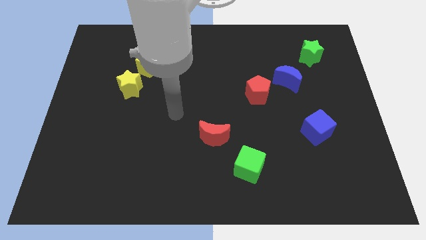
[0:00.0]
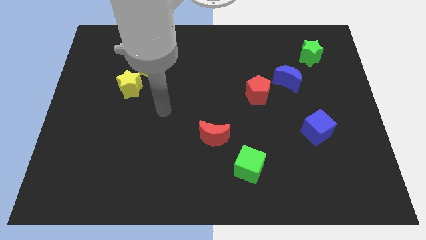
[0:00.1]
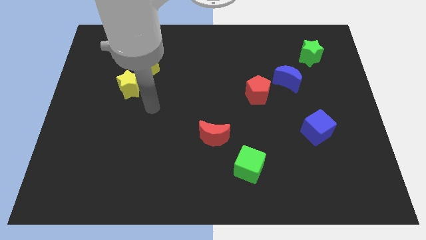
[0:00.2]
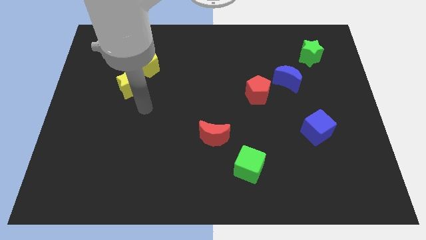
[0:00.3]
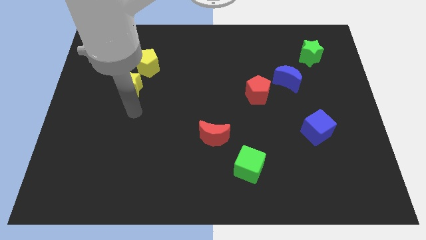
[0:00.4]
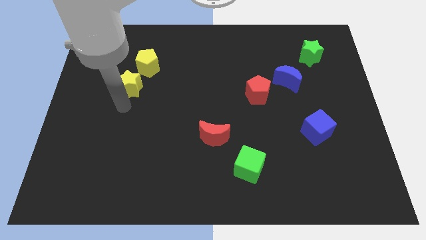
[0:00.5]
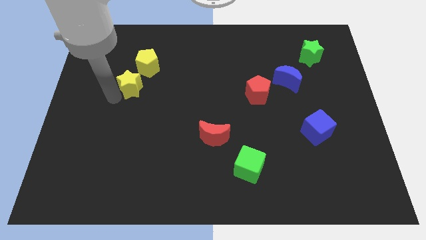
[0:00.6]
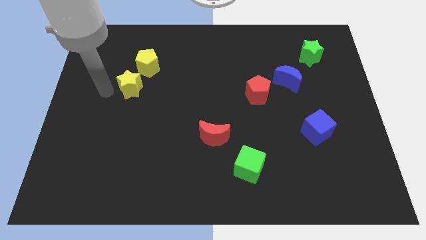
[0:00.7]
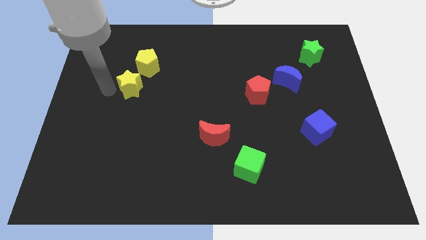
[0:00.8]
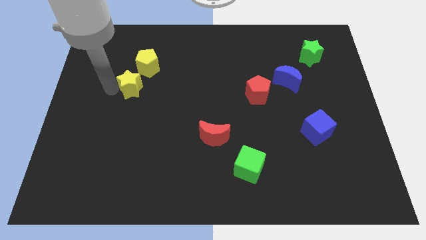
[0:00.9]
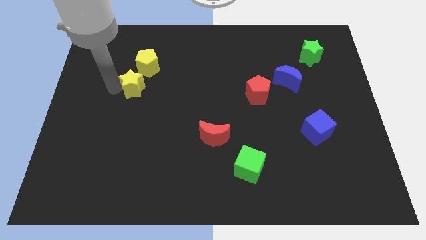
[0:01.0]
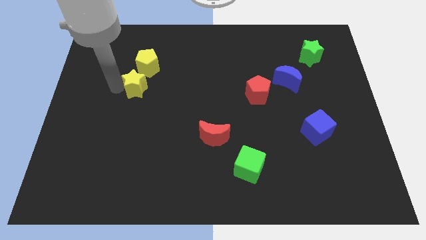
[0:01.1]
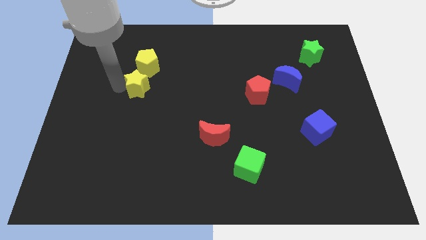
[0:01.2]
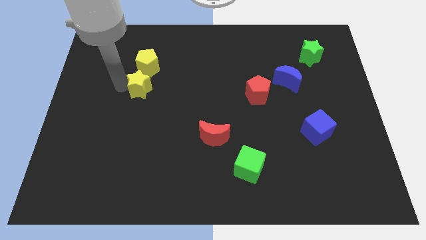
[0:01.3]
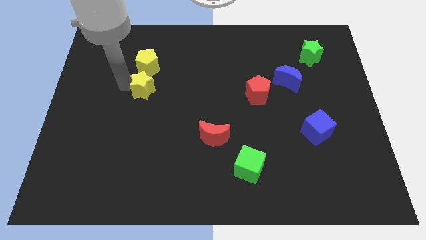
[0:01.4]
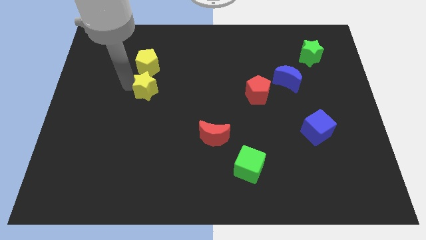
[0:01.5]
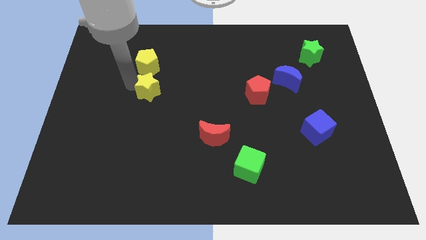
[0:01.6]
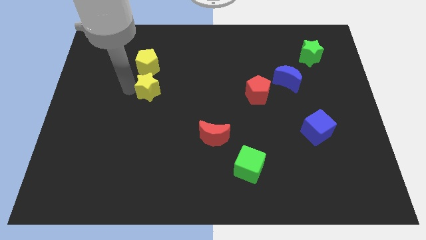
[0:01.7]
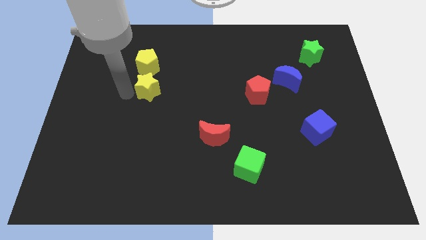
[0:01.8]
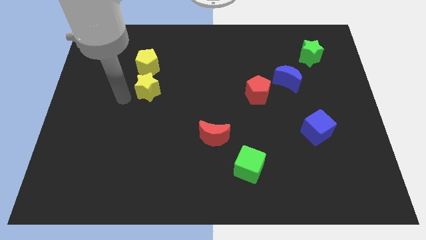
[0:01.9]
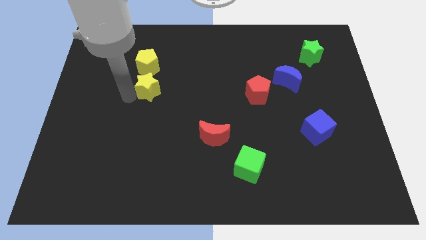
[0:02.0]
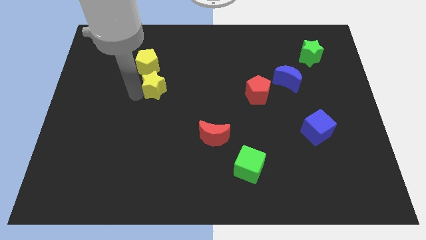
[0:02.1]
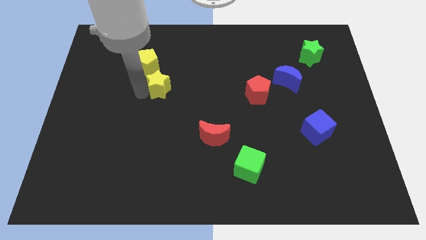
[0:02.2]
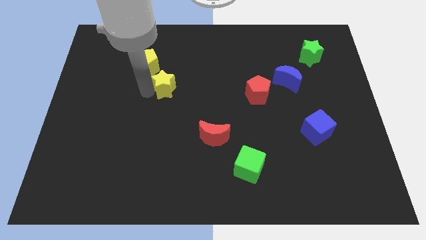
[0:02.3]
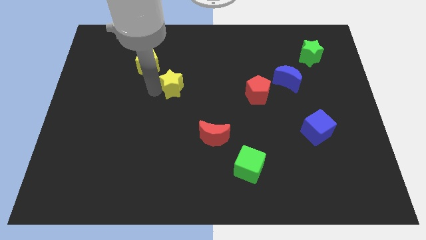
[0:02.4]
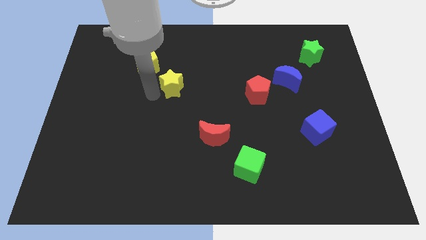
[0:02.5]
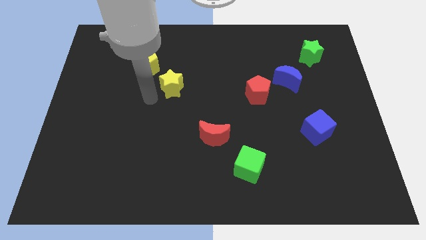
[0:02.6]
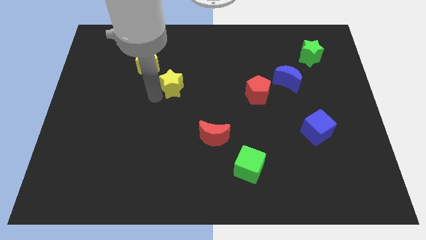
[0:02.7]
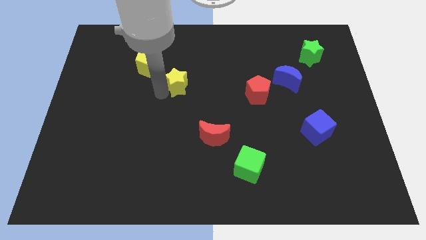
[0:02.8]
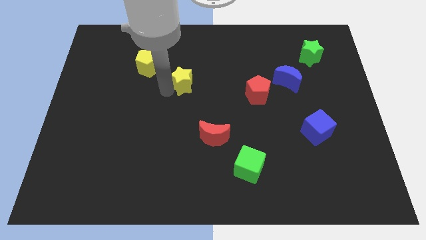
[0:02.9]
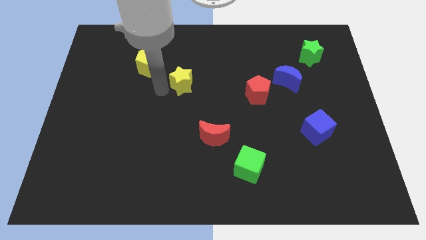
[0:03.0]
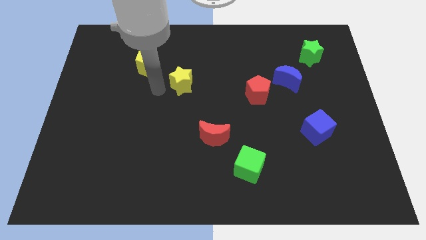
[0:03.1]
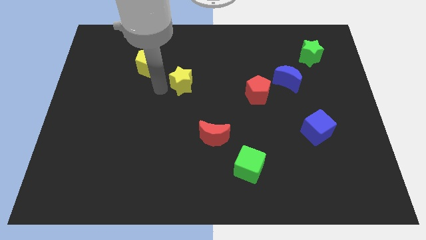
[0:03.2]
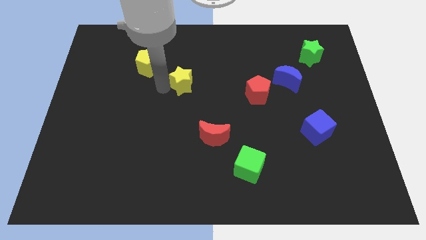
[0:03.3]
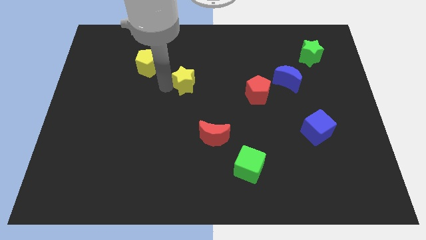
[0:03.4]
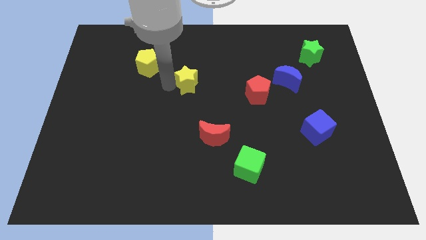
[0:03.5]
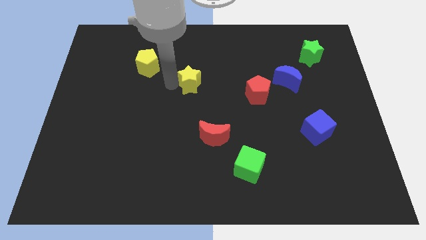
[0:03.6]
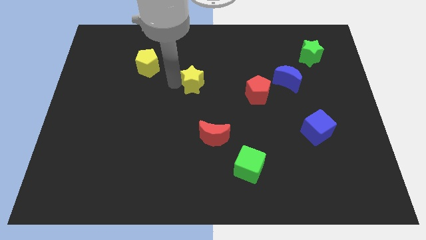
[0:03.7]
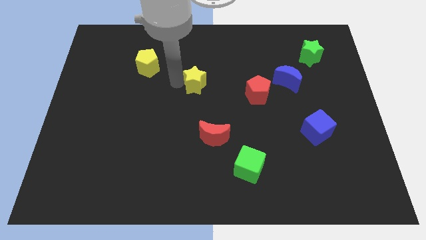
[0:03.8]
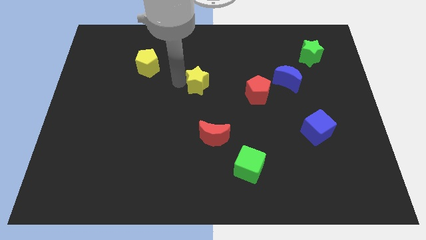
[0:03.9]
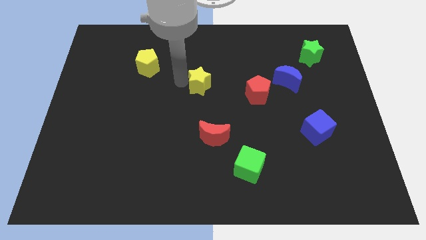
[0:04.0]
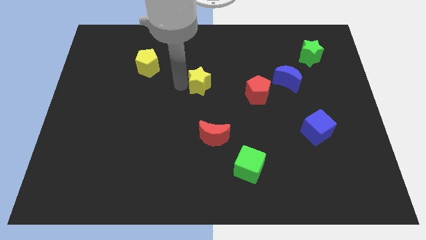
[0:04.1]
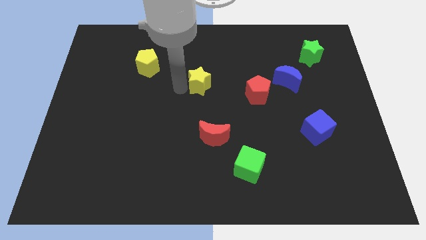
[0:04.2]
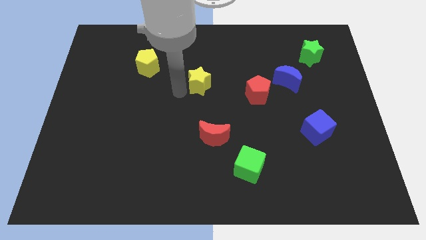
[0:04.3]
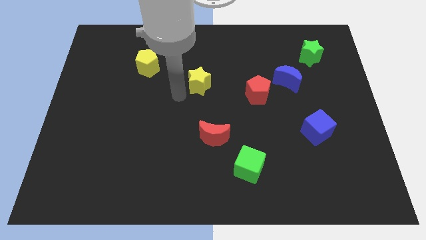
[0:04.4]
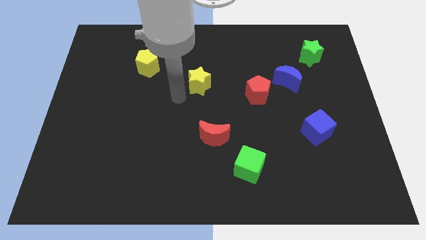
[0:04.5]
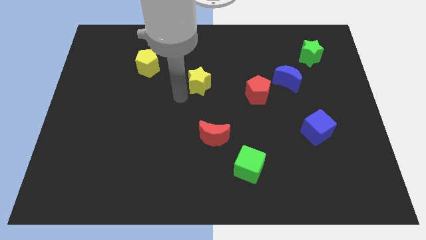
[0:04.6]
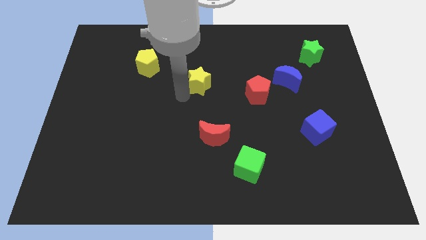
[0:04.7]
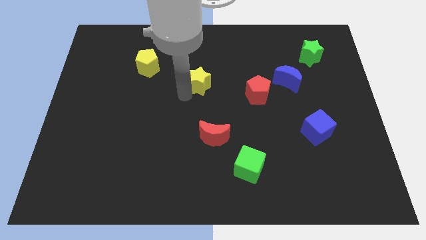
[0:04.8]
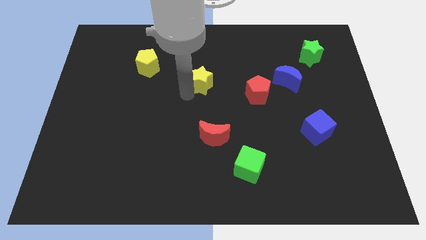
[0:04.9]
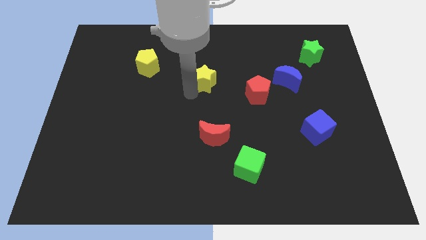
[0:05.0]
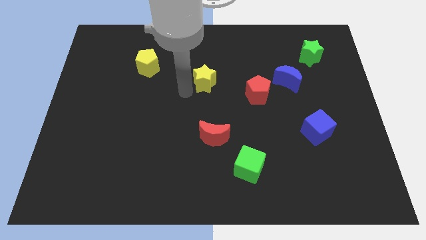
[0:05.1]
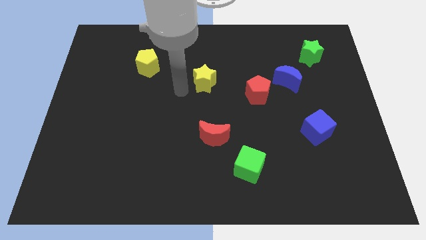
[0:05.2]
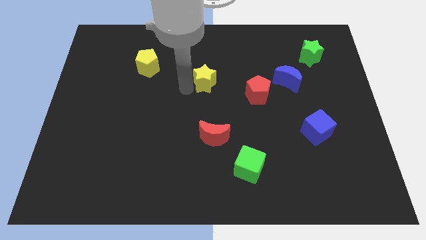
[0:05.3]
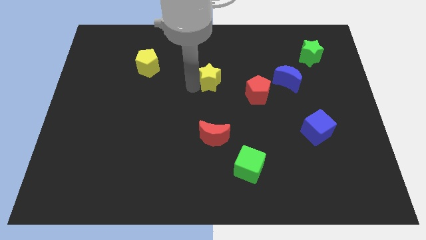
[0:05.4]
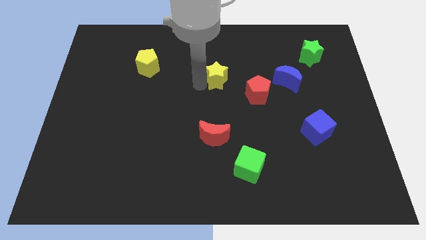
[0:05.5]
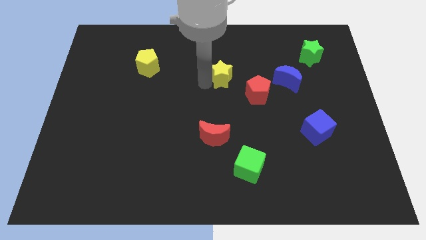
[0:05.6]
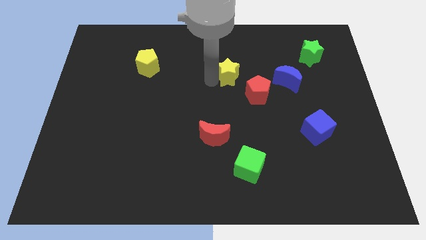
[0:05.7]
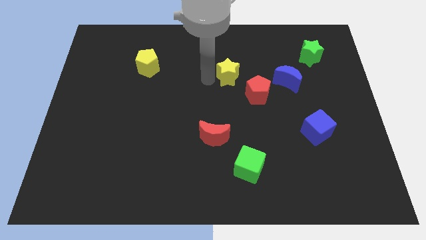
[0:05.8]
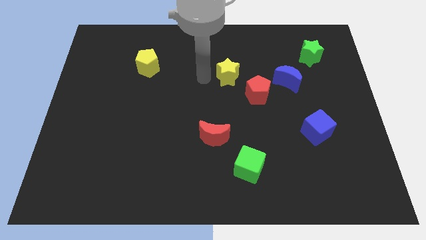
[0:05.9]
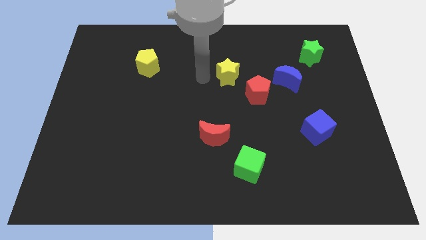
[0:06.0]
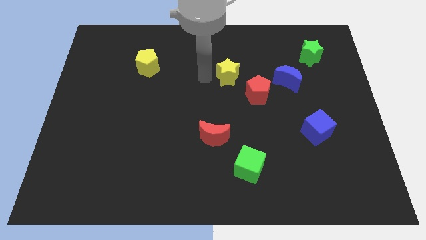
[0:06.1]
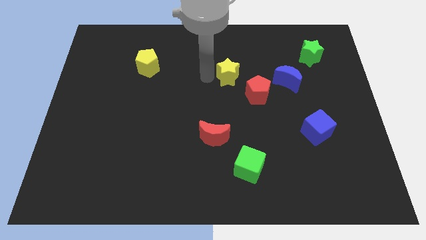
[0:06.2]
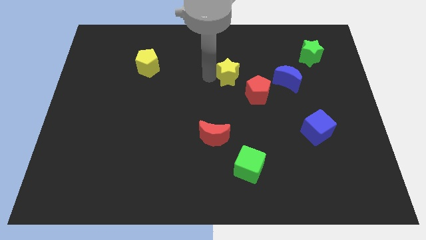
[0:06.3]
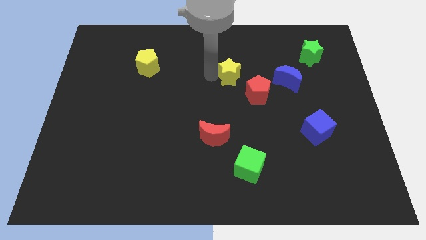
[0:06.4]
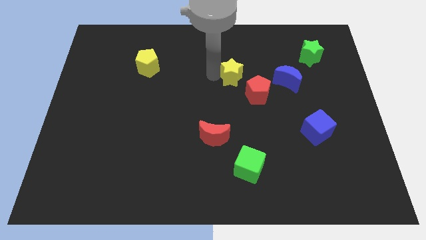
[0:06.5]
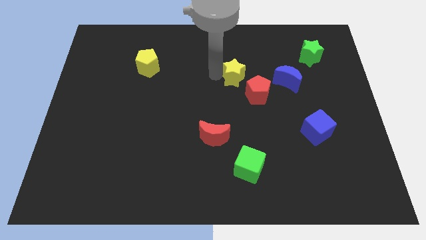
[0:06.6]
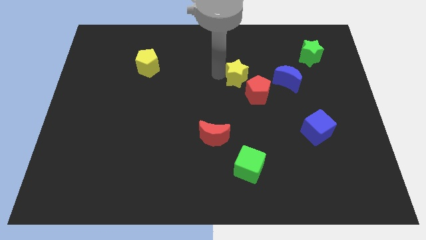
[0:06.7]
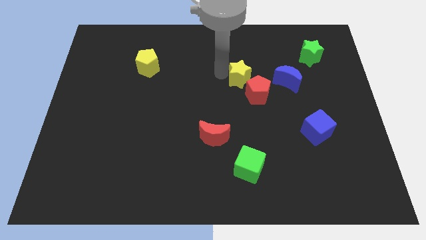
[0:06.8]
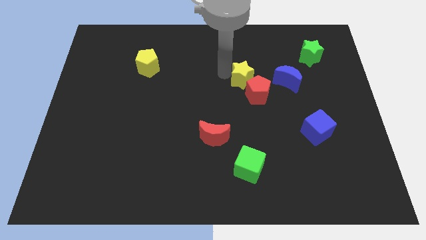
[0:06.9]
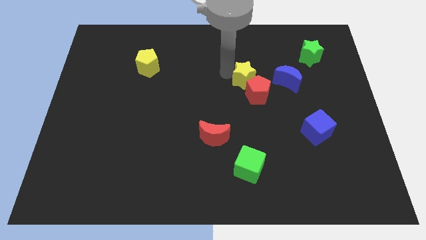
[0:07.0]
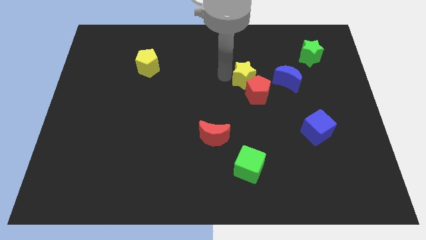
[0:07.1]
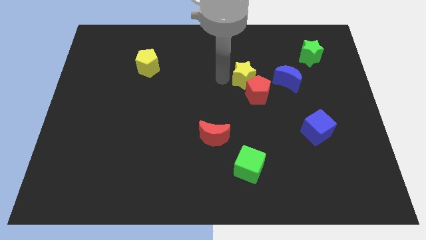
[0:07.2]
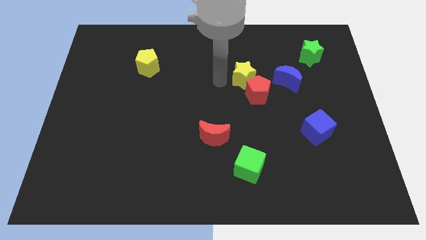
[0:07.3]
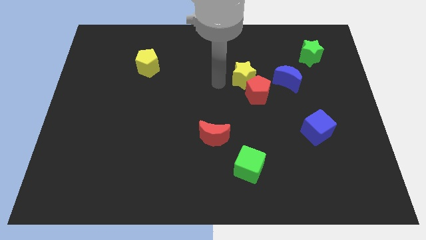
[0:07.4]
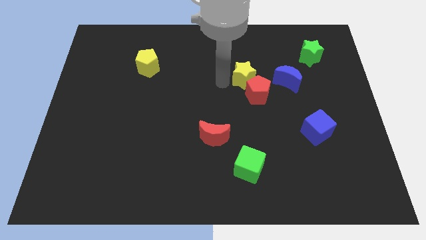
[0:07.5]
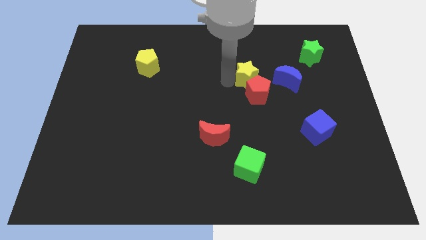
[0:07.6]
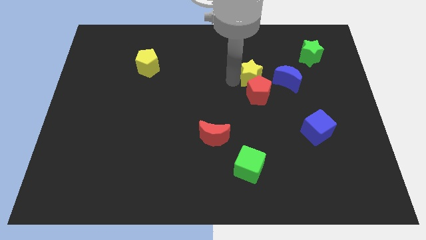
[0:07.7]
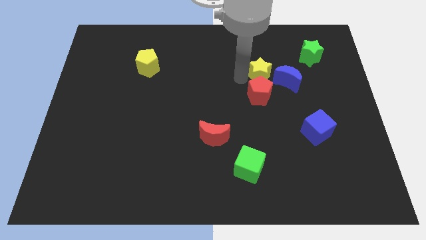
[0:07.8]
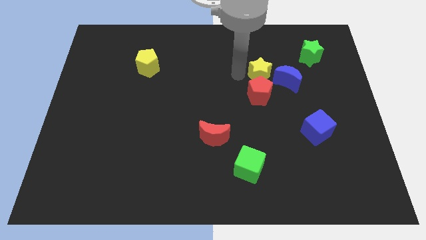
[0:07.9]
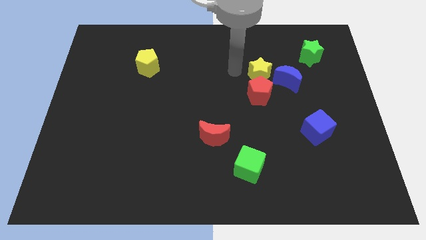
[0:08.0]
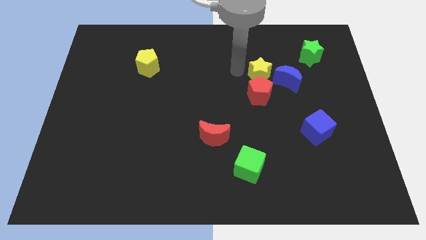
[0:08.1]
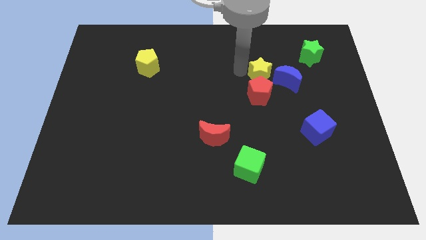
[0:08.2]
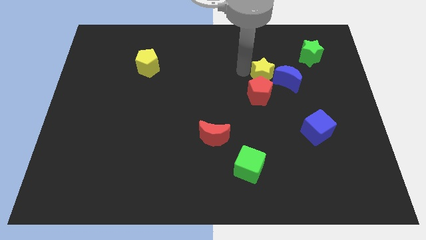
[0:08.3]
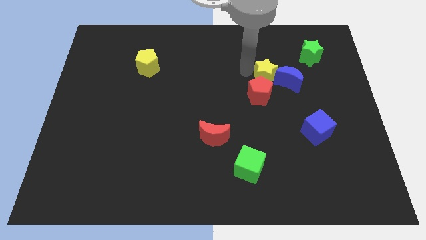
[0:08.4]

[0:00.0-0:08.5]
push the yellow star to the blue moon
